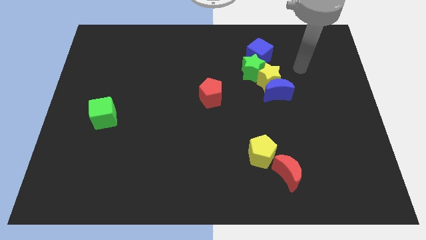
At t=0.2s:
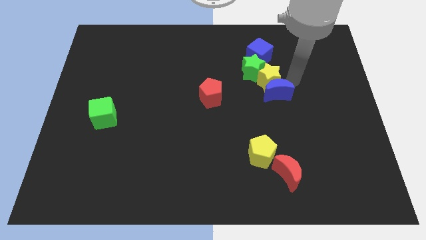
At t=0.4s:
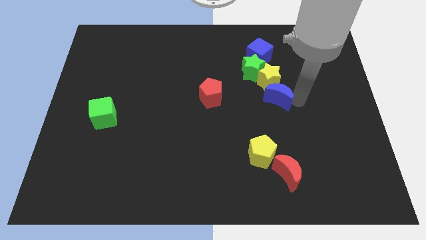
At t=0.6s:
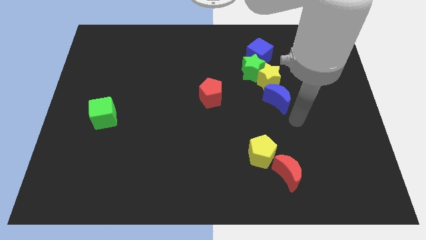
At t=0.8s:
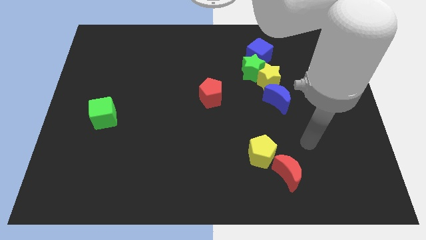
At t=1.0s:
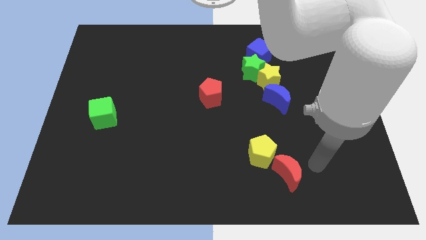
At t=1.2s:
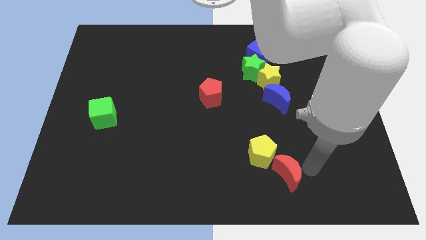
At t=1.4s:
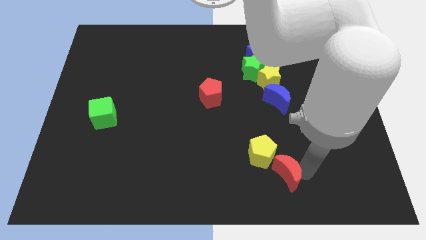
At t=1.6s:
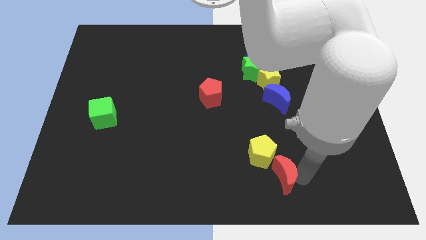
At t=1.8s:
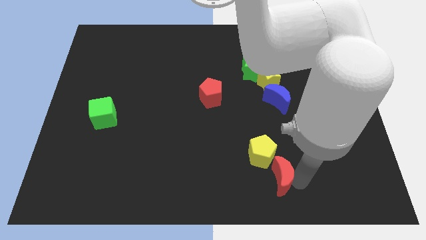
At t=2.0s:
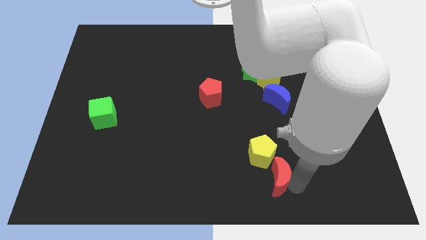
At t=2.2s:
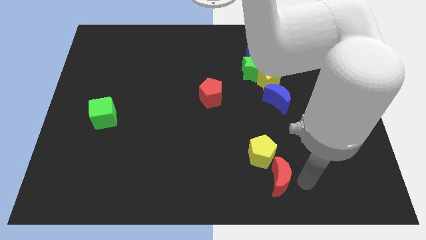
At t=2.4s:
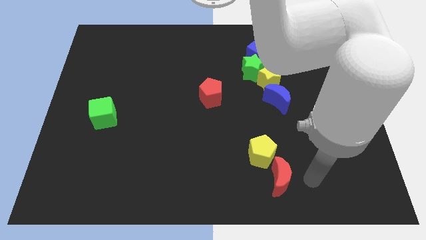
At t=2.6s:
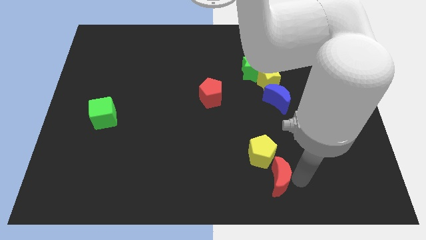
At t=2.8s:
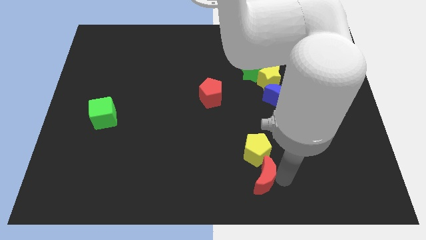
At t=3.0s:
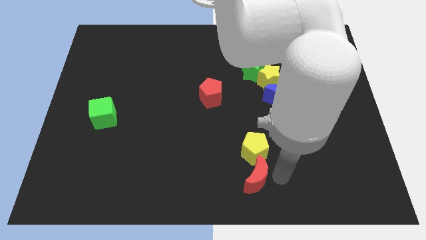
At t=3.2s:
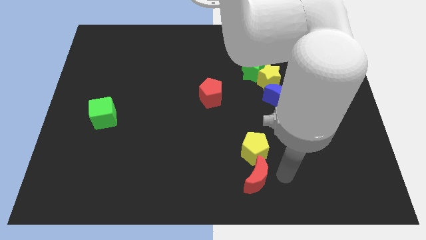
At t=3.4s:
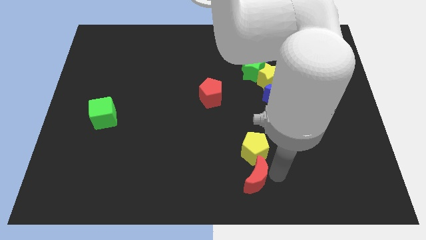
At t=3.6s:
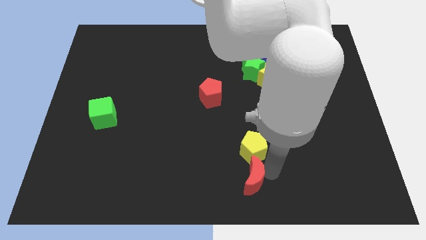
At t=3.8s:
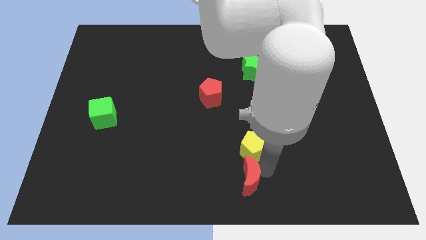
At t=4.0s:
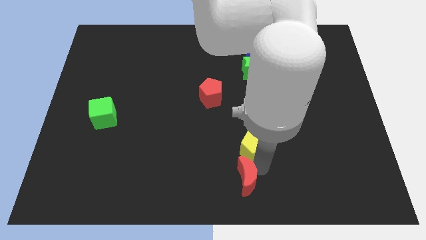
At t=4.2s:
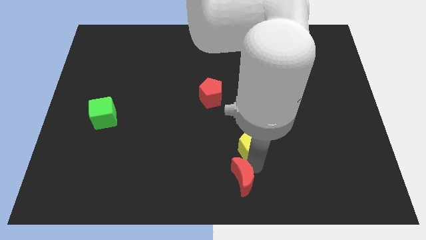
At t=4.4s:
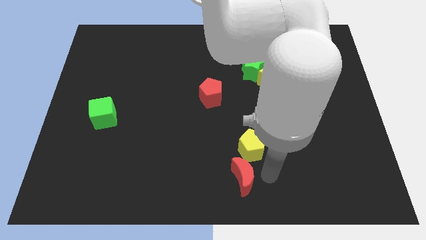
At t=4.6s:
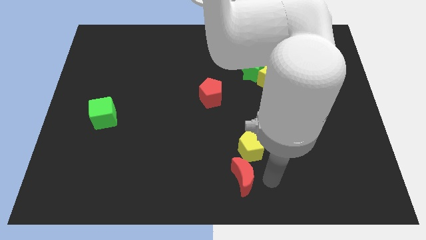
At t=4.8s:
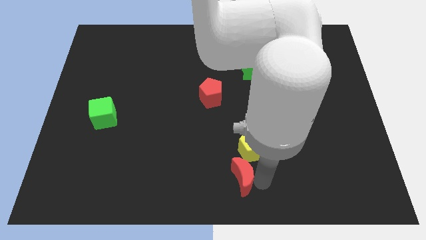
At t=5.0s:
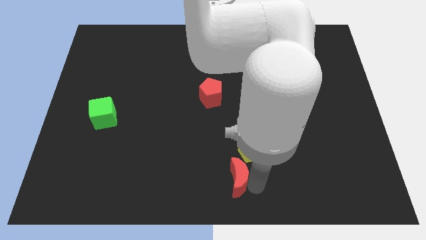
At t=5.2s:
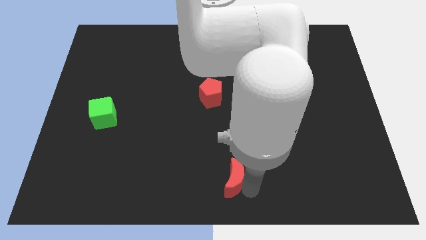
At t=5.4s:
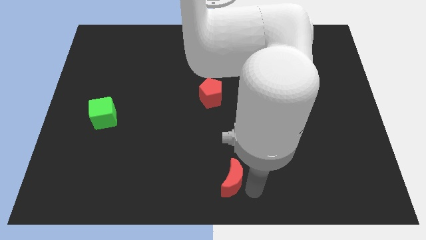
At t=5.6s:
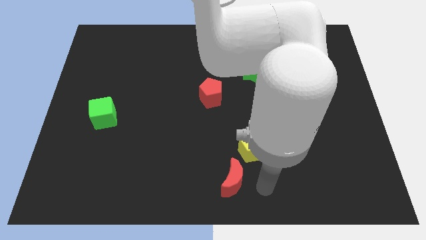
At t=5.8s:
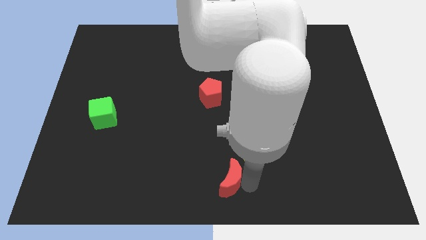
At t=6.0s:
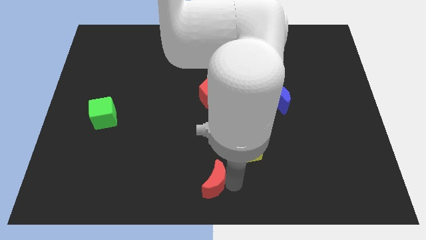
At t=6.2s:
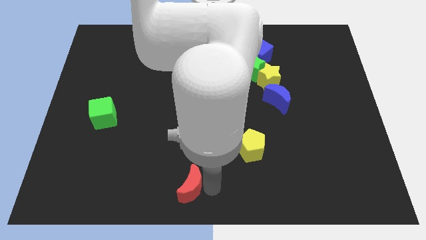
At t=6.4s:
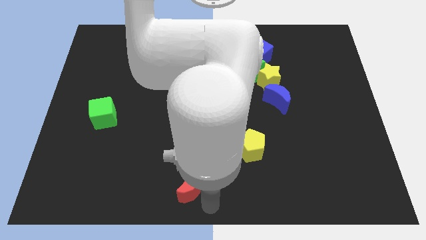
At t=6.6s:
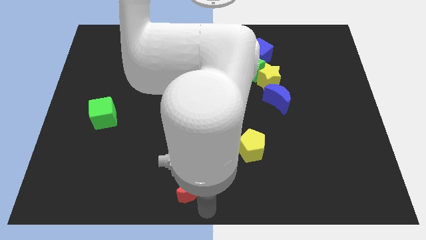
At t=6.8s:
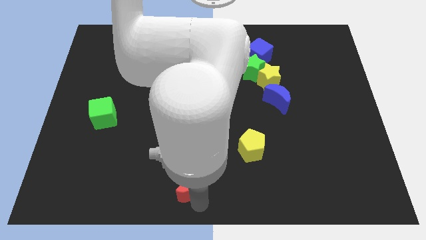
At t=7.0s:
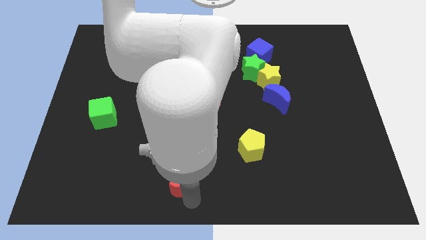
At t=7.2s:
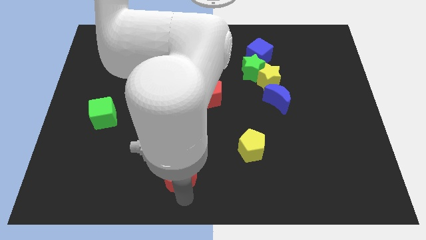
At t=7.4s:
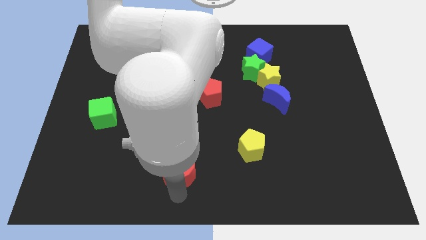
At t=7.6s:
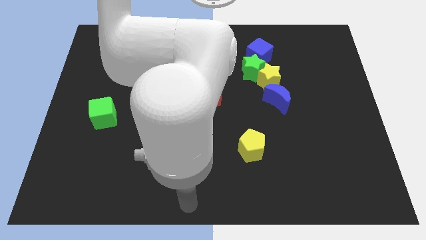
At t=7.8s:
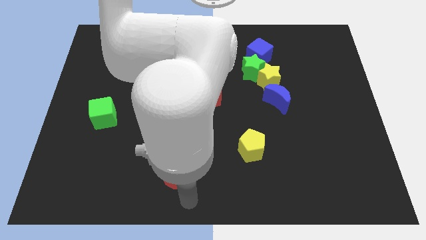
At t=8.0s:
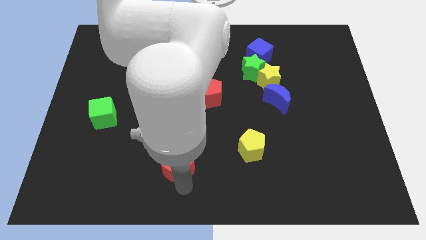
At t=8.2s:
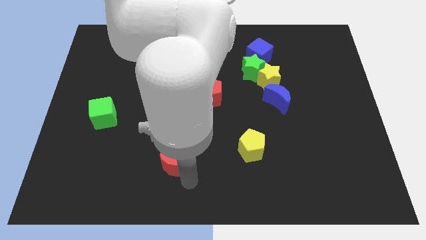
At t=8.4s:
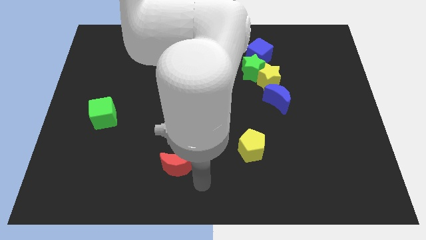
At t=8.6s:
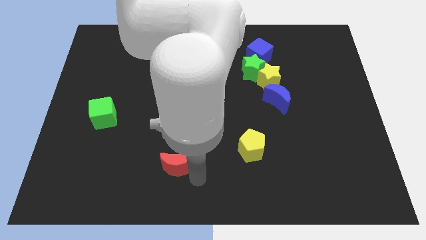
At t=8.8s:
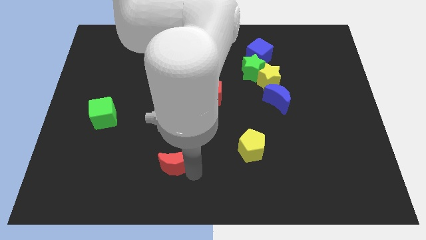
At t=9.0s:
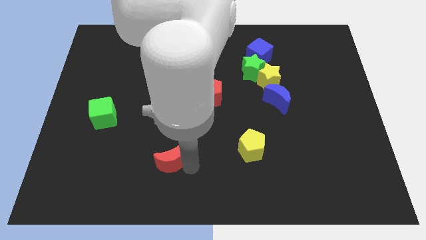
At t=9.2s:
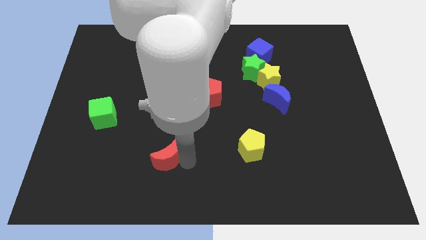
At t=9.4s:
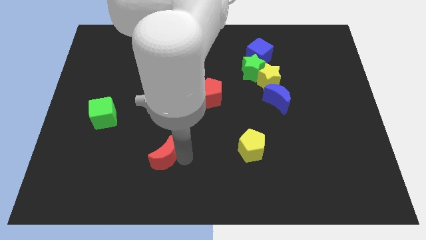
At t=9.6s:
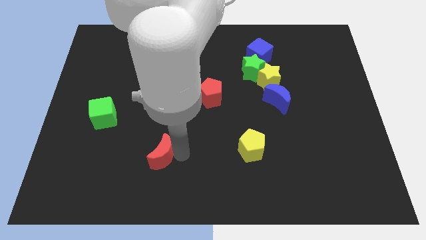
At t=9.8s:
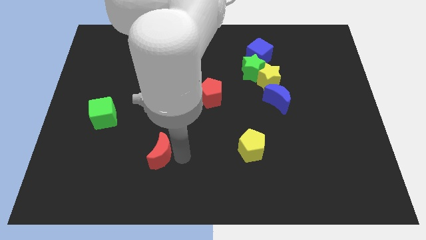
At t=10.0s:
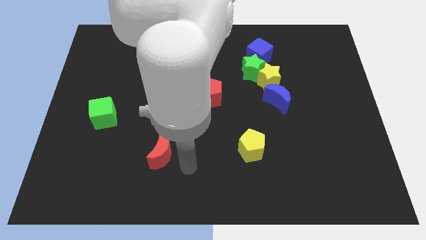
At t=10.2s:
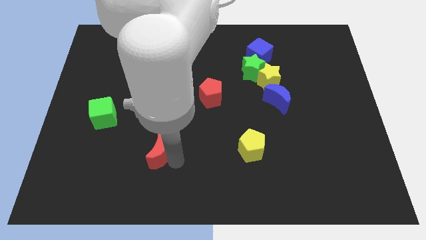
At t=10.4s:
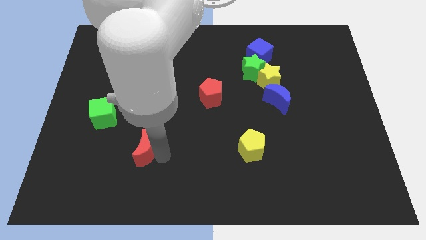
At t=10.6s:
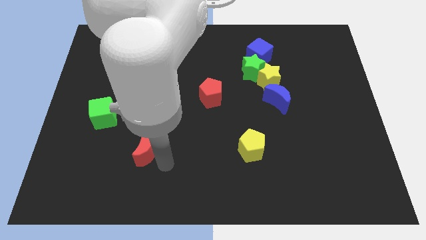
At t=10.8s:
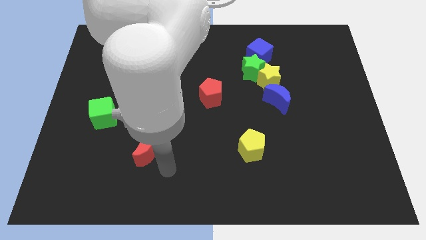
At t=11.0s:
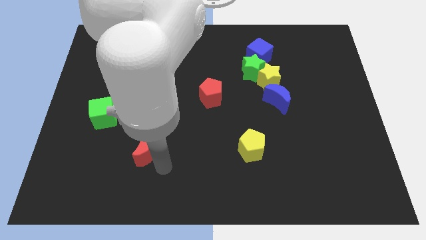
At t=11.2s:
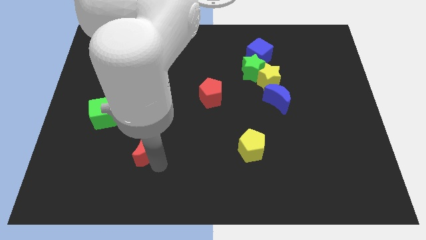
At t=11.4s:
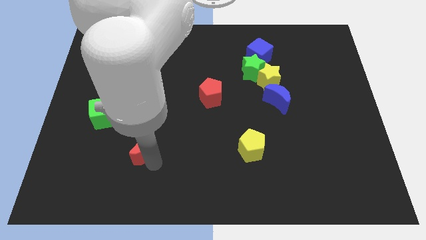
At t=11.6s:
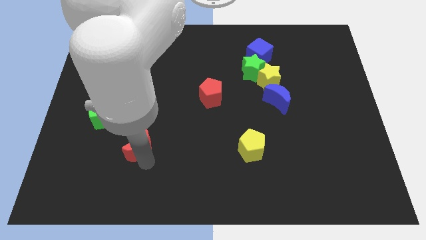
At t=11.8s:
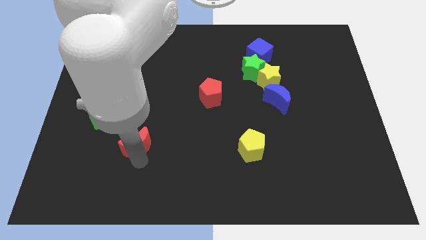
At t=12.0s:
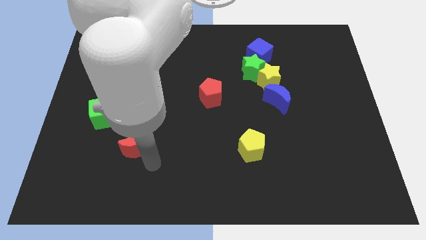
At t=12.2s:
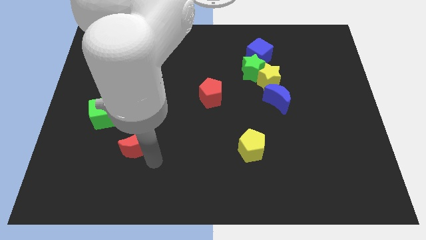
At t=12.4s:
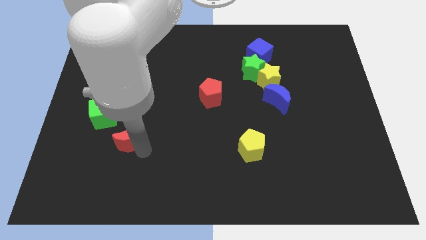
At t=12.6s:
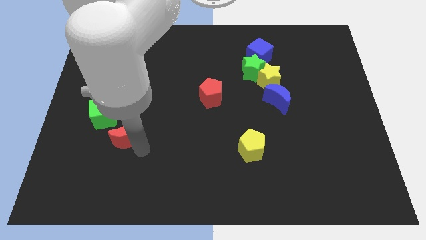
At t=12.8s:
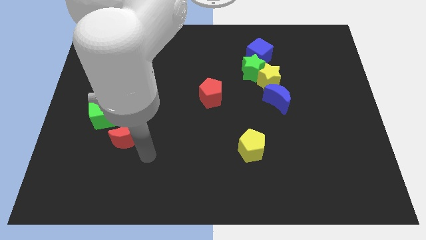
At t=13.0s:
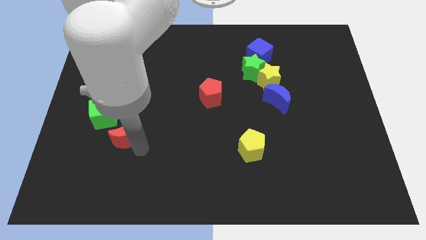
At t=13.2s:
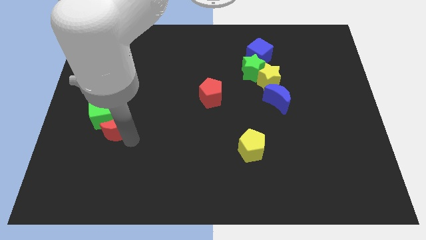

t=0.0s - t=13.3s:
put the red moon towards the green cube

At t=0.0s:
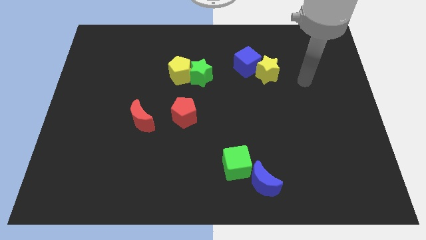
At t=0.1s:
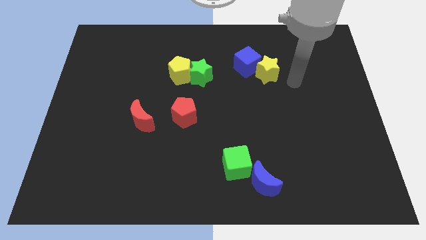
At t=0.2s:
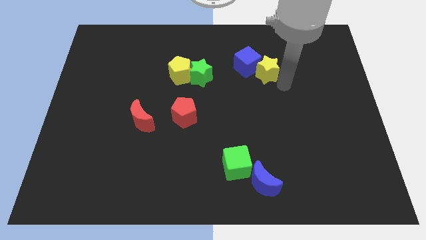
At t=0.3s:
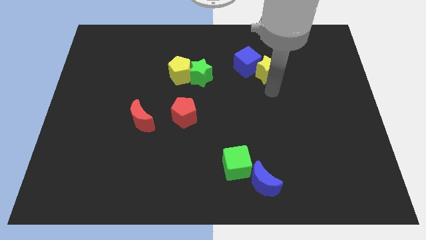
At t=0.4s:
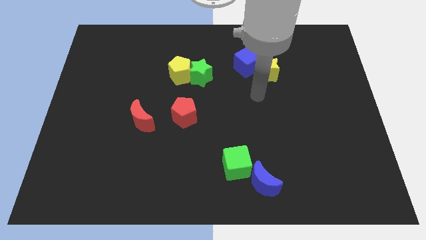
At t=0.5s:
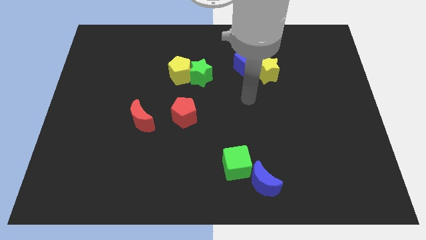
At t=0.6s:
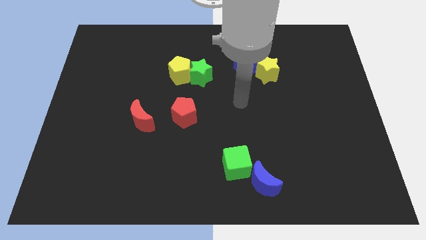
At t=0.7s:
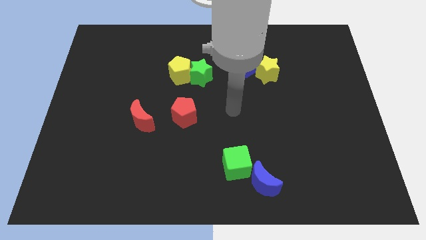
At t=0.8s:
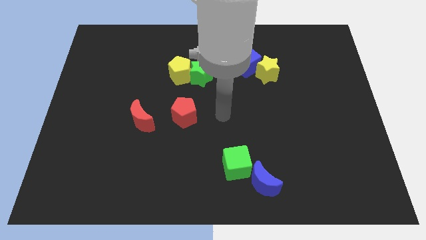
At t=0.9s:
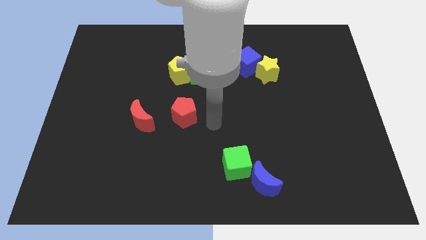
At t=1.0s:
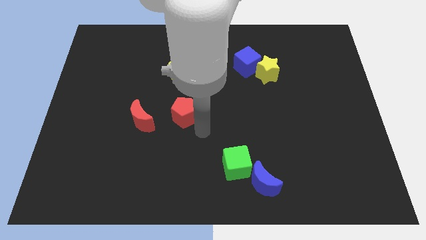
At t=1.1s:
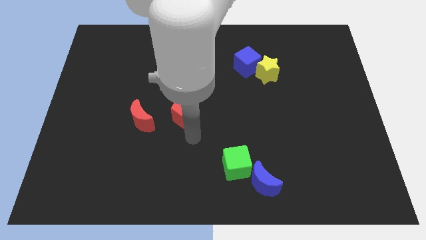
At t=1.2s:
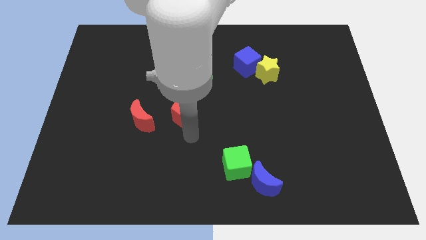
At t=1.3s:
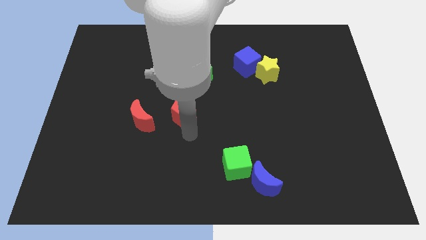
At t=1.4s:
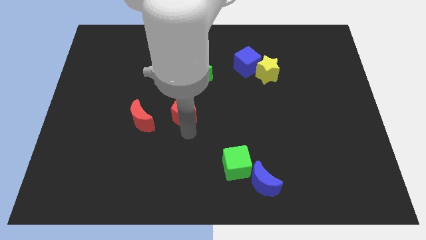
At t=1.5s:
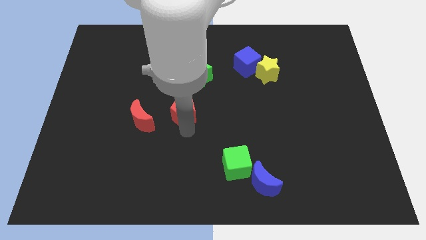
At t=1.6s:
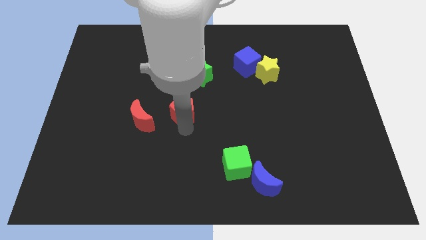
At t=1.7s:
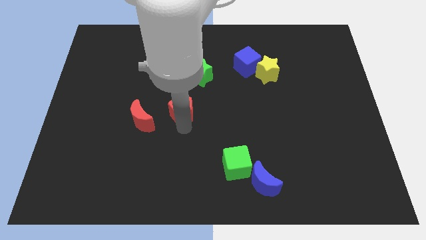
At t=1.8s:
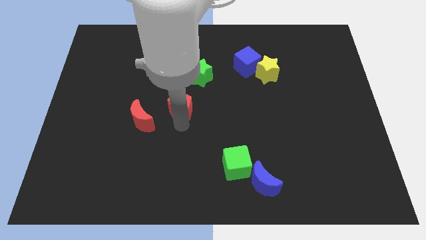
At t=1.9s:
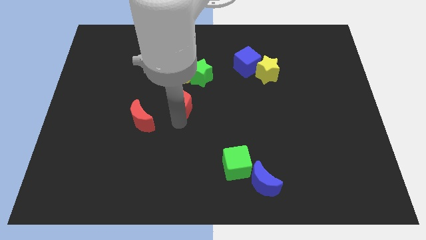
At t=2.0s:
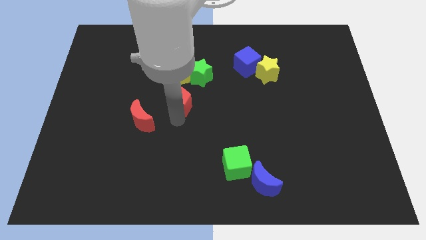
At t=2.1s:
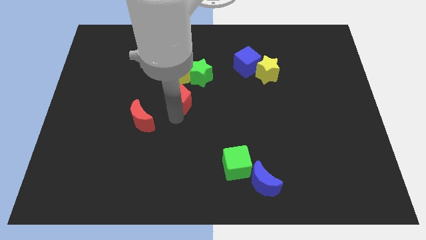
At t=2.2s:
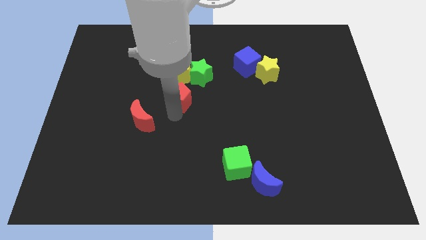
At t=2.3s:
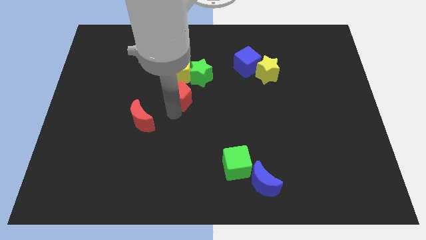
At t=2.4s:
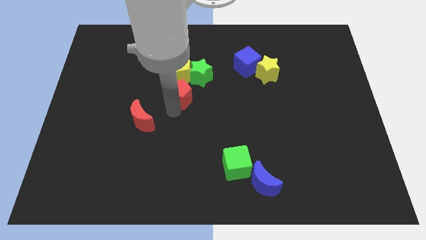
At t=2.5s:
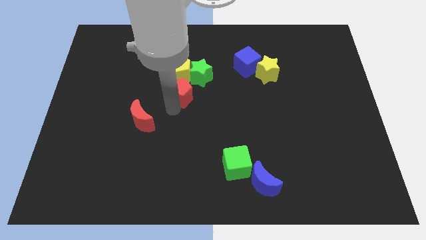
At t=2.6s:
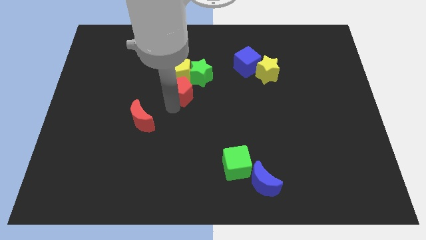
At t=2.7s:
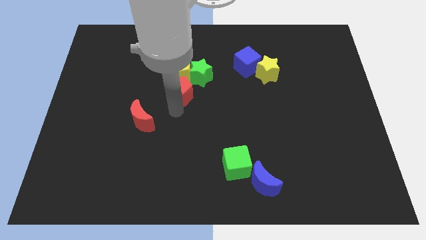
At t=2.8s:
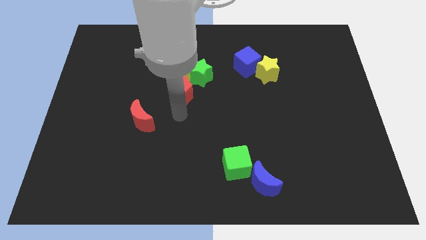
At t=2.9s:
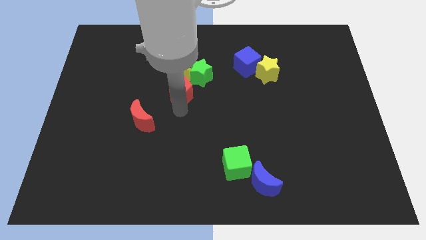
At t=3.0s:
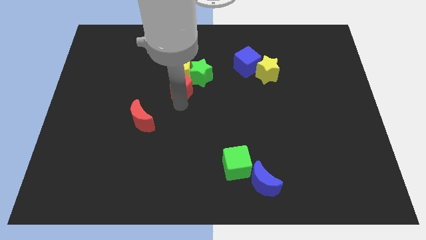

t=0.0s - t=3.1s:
put the red pentagon next to the yellow pentagon
